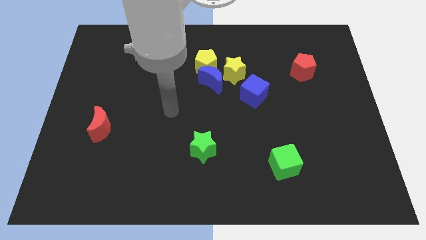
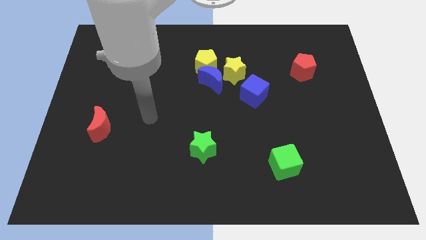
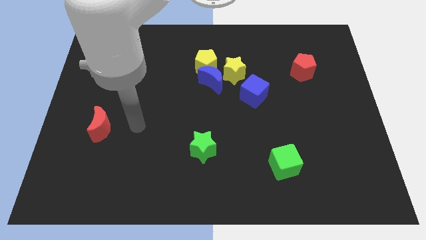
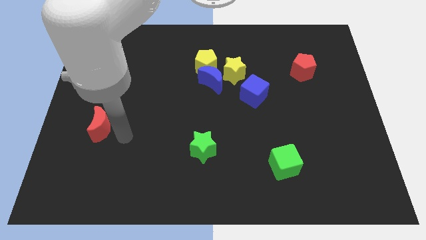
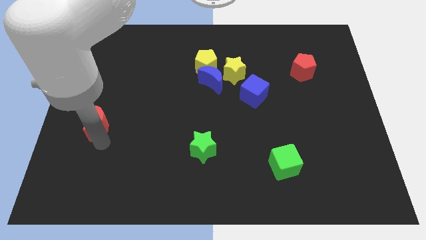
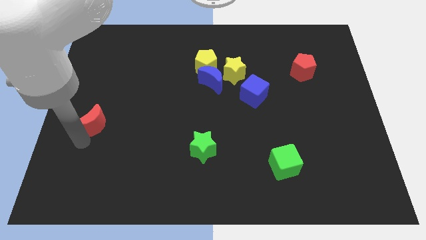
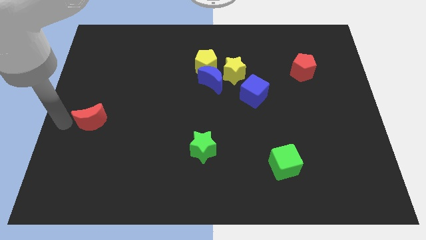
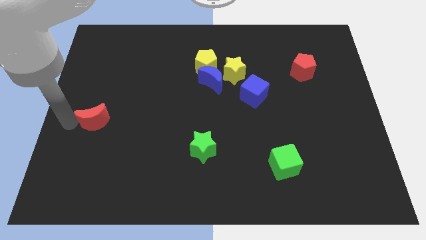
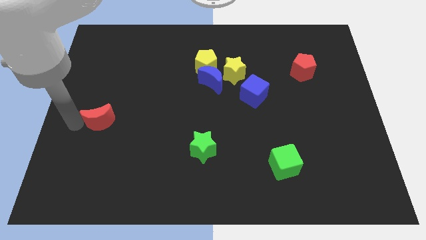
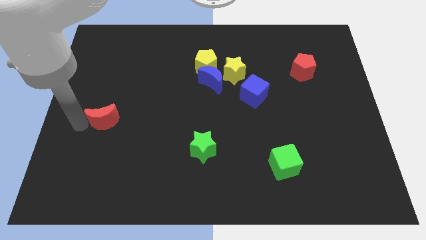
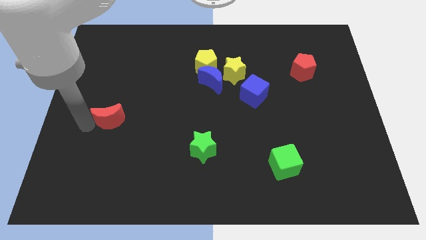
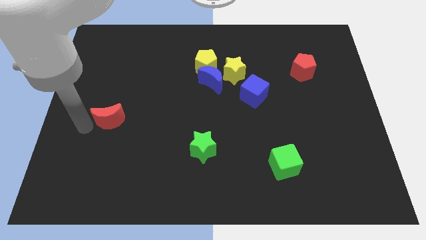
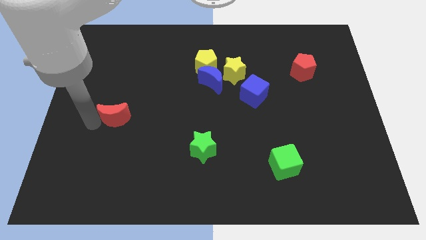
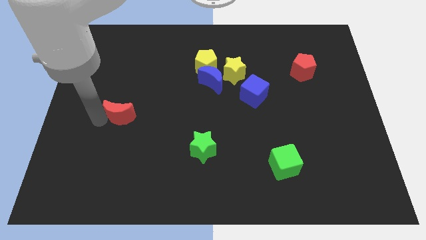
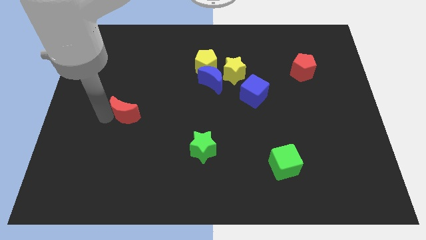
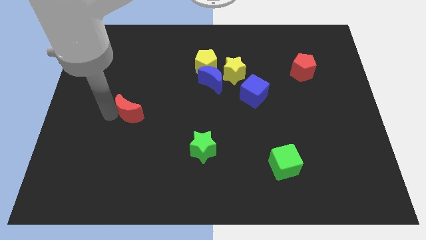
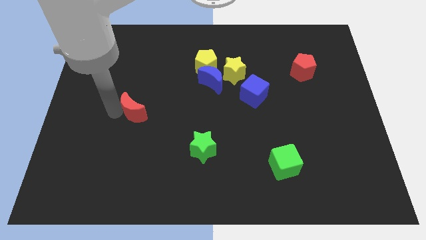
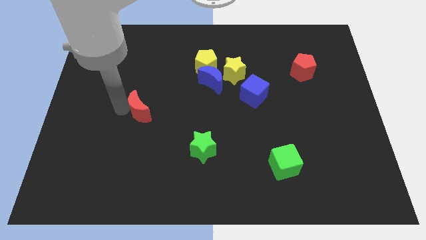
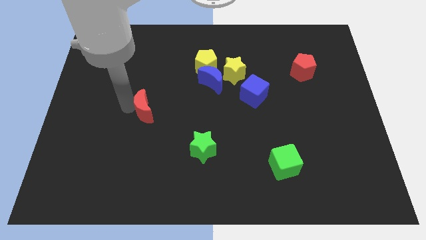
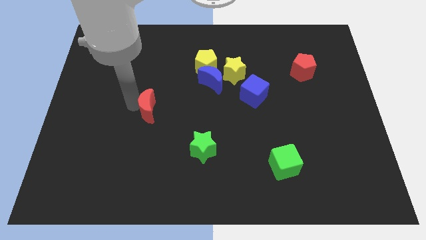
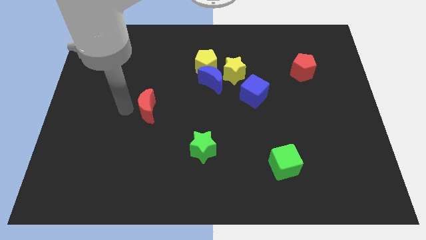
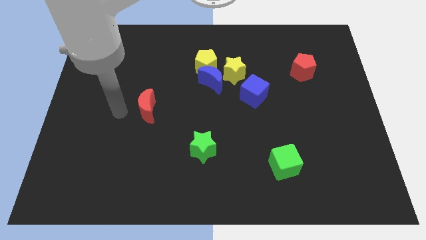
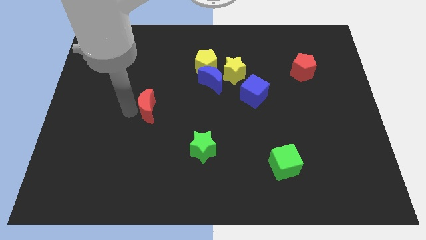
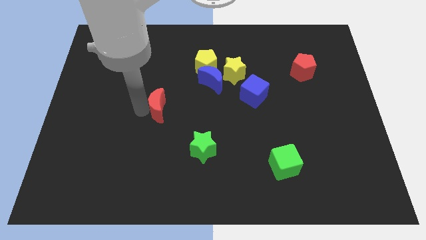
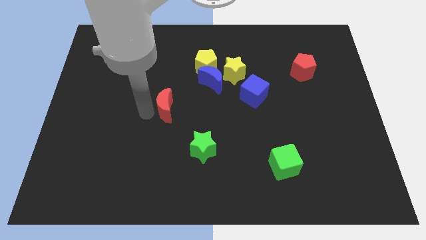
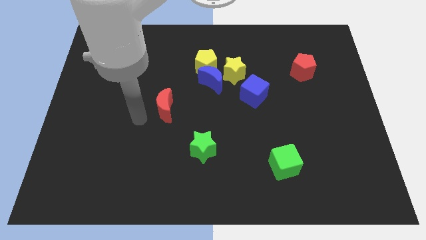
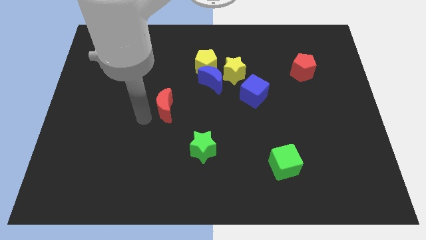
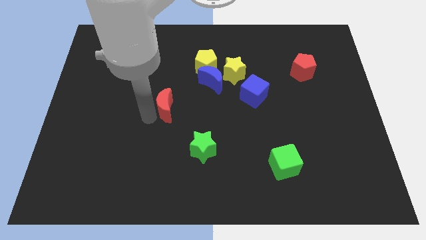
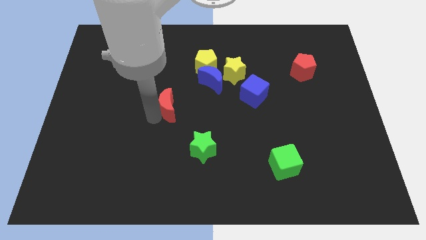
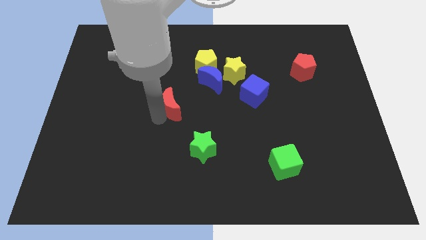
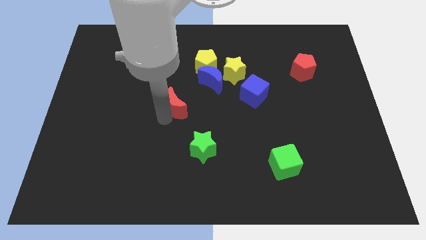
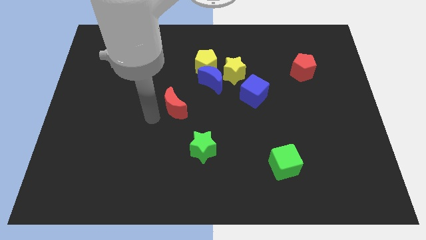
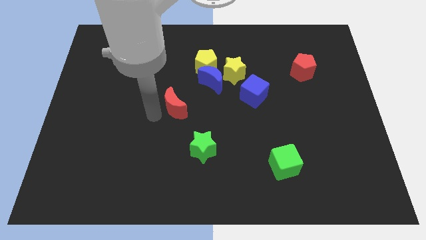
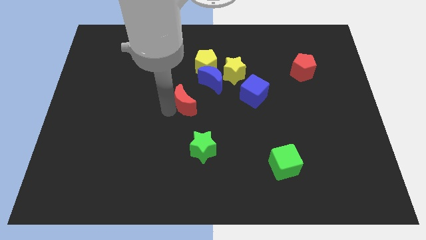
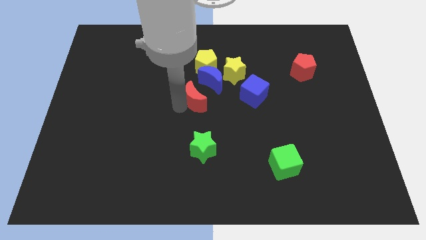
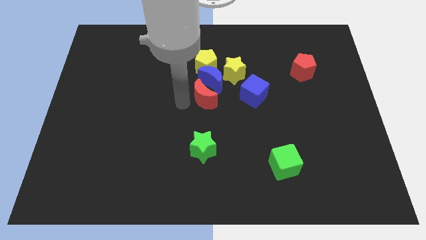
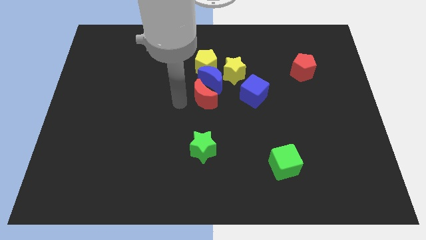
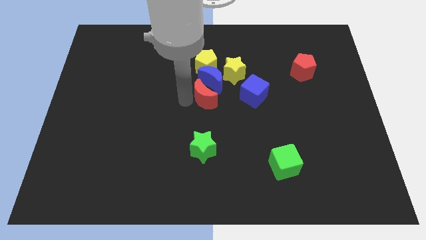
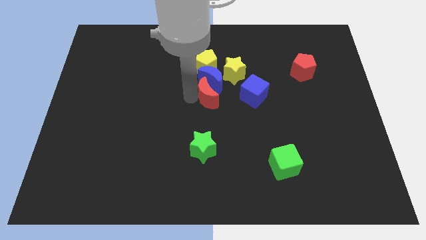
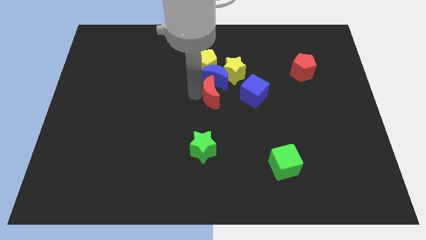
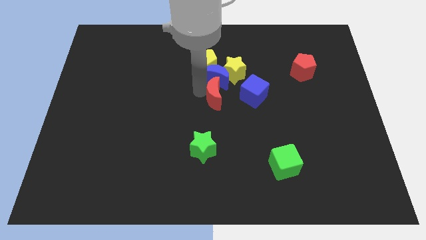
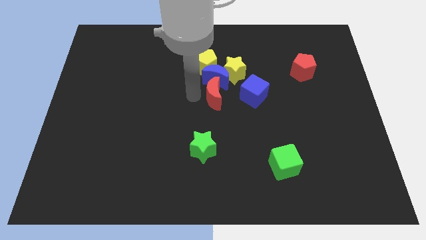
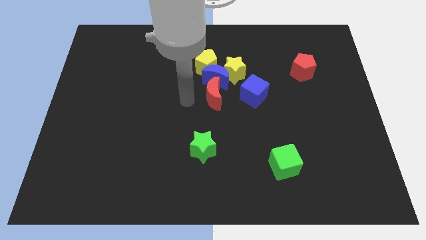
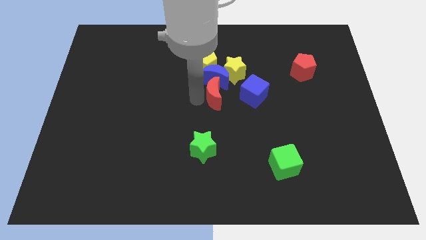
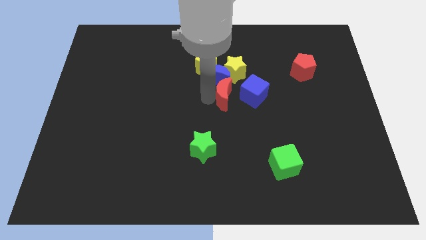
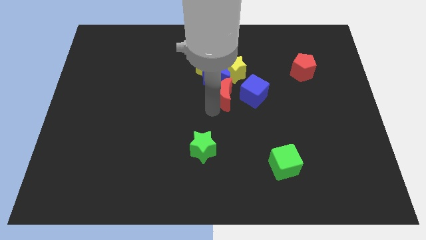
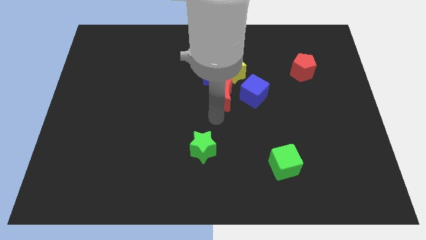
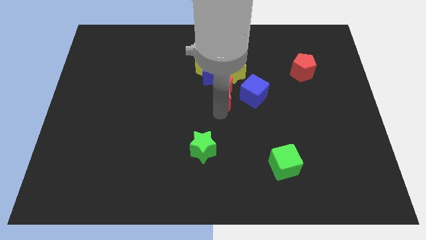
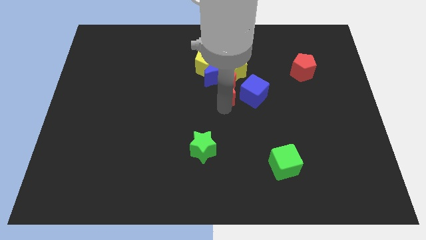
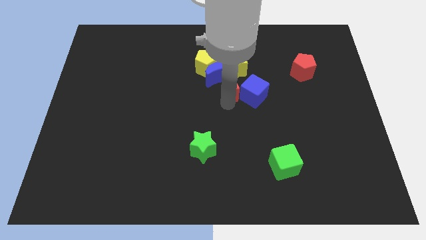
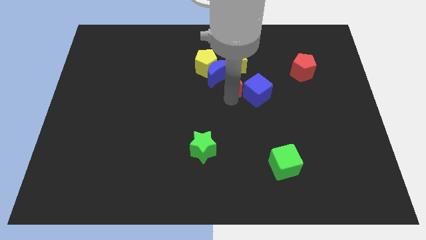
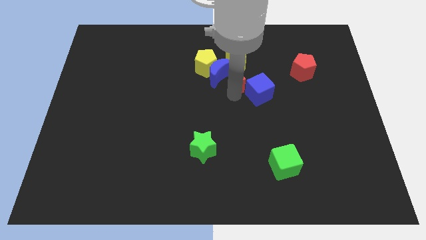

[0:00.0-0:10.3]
move the red moon to the yellow star

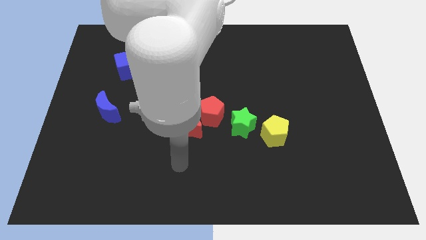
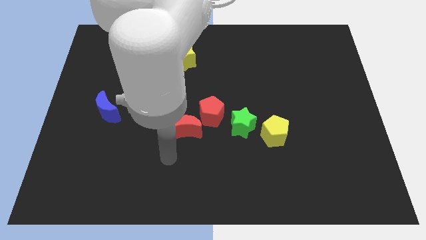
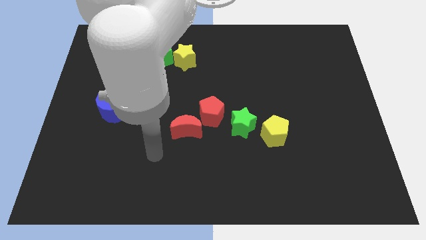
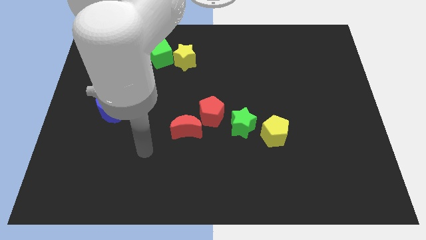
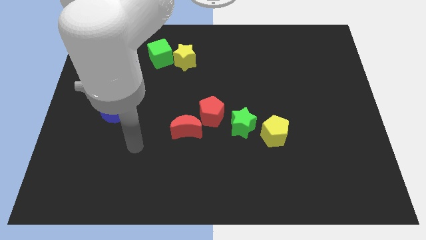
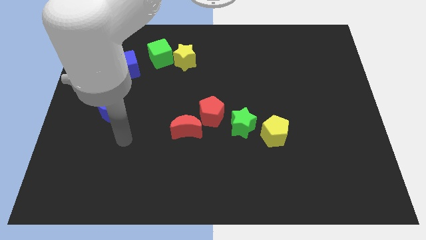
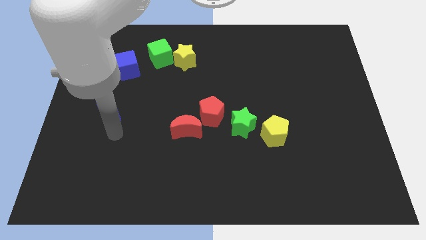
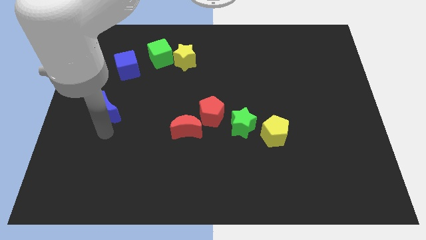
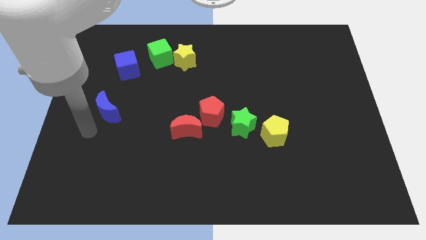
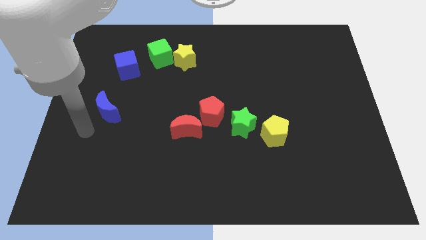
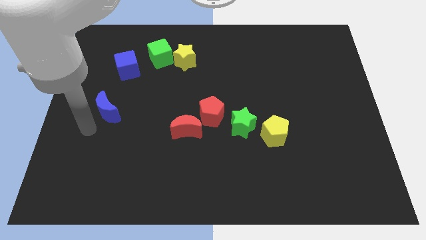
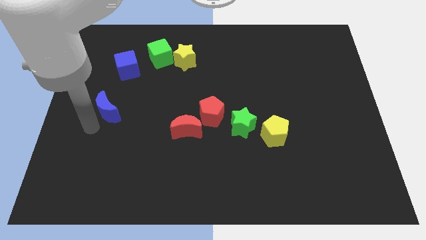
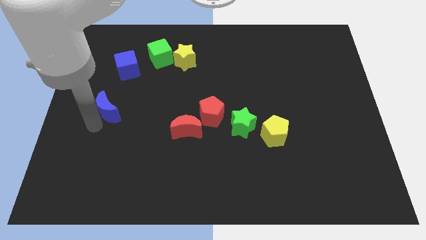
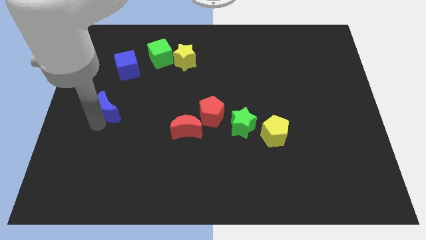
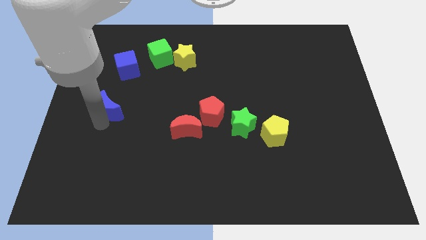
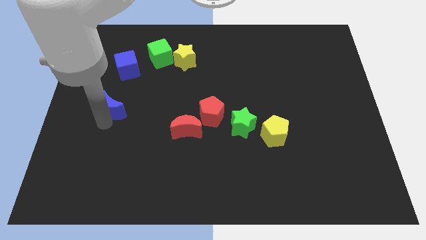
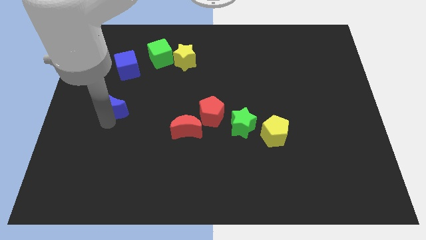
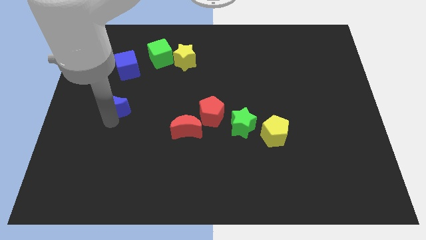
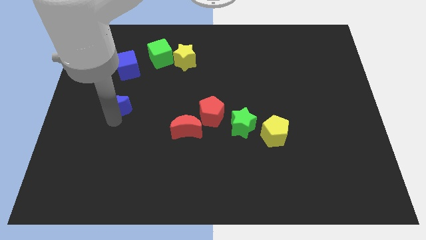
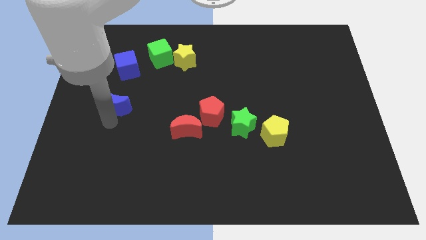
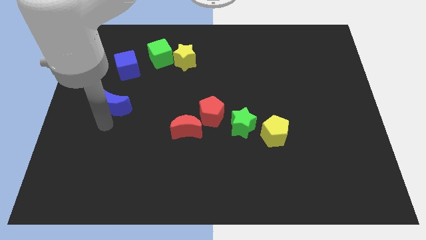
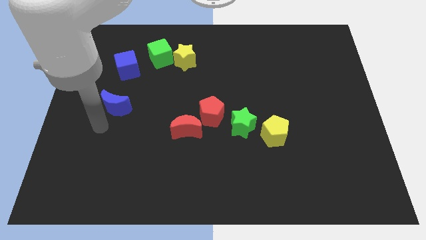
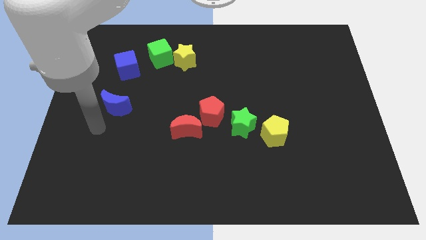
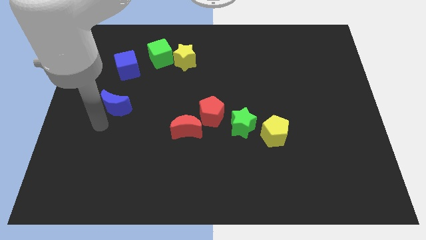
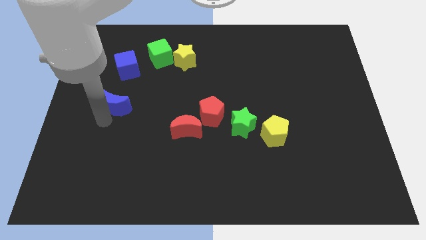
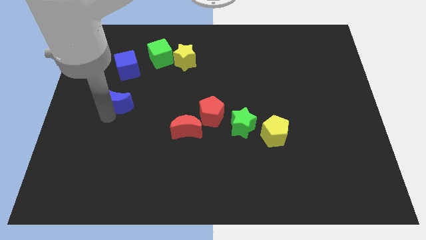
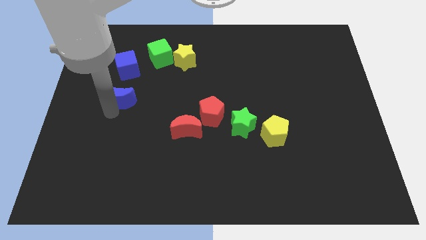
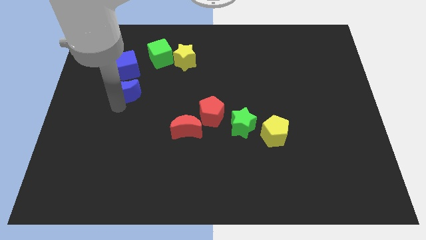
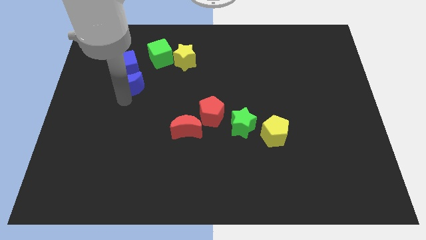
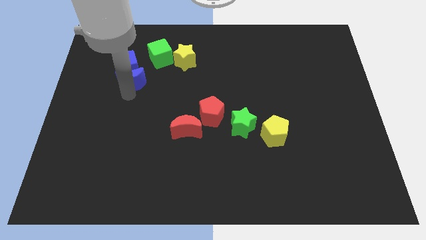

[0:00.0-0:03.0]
slide the blue moon towards the blue cube
